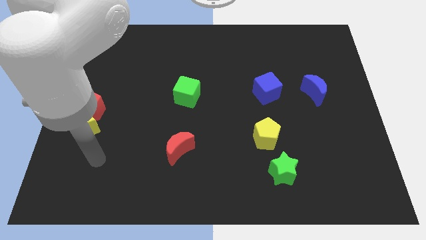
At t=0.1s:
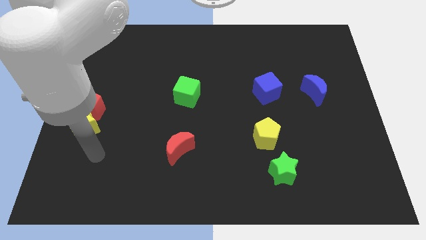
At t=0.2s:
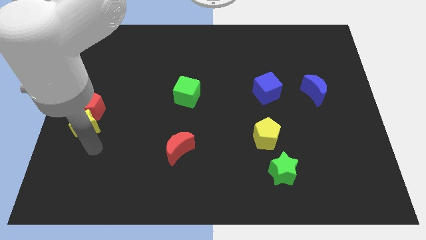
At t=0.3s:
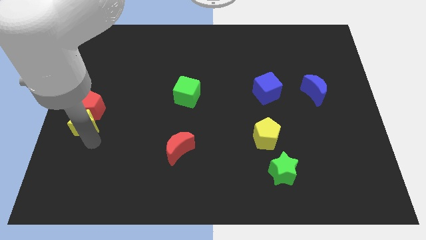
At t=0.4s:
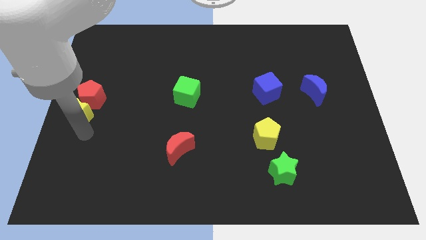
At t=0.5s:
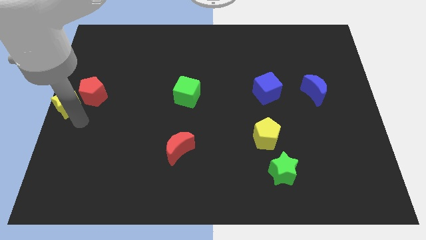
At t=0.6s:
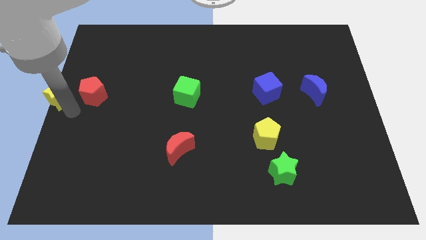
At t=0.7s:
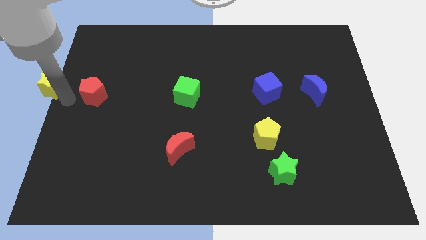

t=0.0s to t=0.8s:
separate the red pentagon from the yellow star

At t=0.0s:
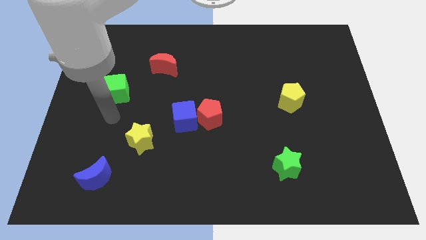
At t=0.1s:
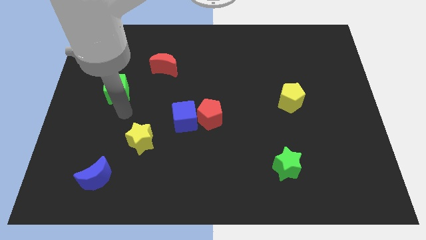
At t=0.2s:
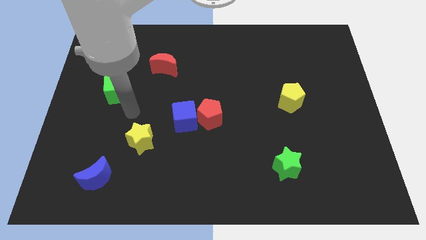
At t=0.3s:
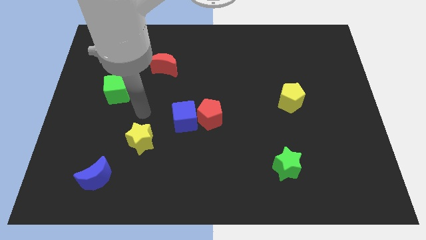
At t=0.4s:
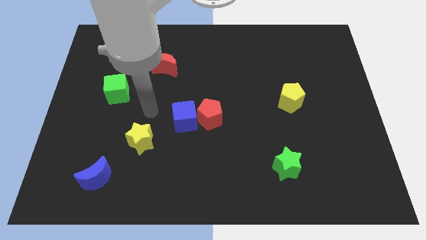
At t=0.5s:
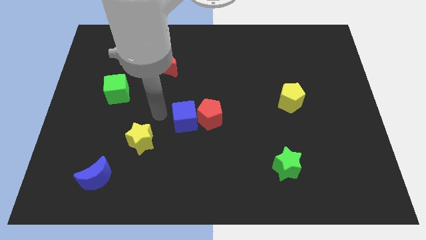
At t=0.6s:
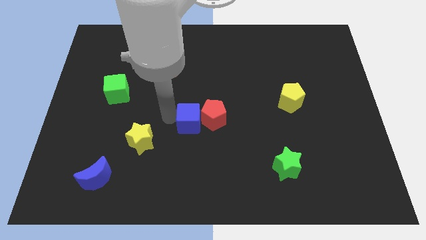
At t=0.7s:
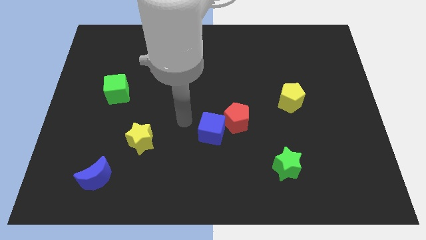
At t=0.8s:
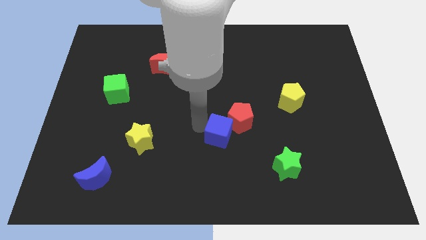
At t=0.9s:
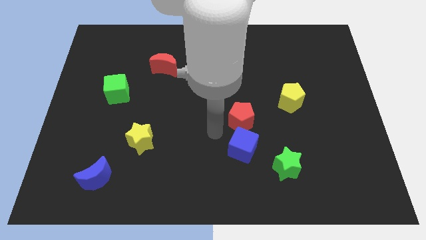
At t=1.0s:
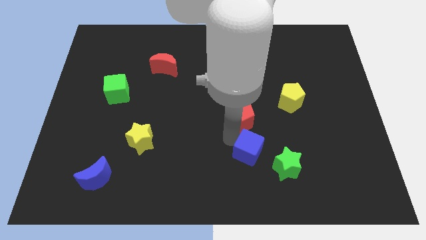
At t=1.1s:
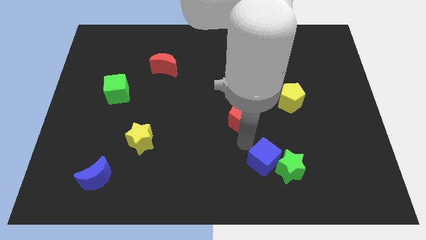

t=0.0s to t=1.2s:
separate the red pentagon from the blue cube

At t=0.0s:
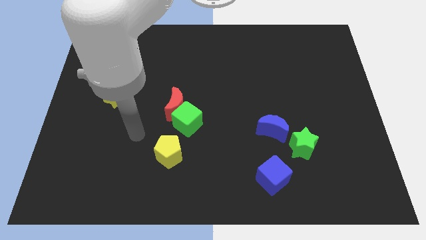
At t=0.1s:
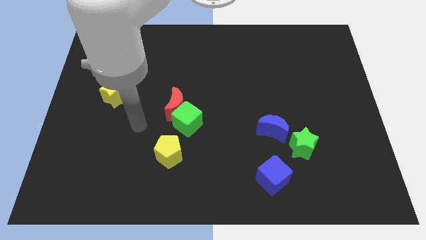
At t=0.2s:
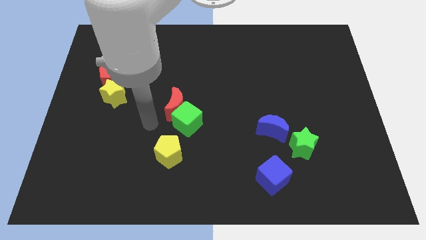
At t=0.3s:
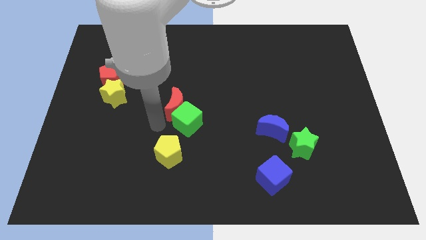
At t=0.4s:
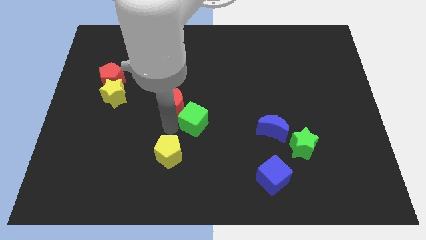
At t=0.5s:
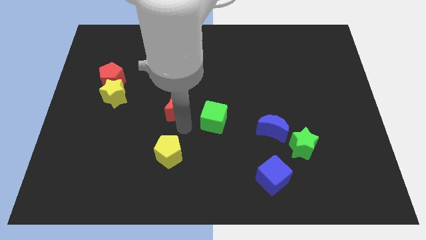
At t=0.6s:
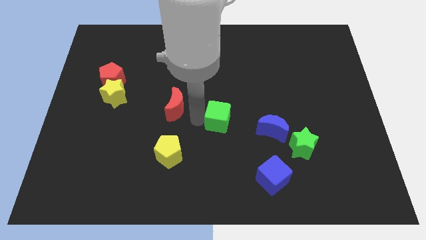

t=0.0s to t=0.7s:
move the red moon away from the green cube

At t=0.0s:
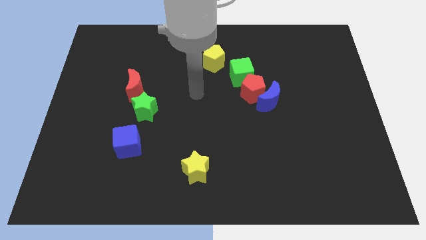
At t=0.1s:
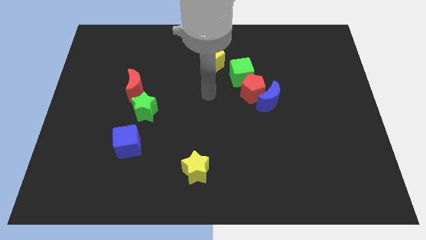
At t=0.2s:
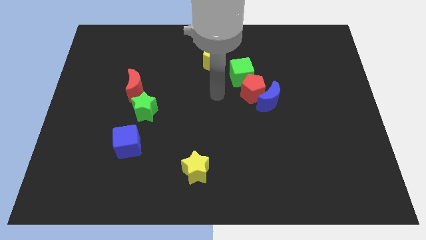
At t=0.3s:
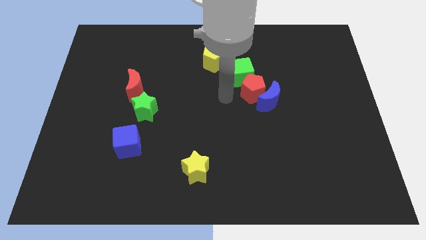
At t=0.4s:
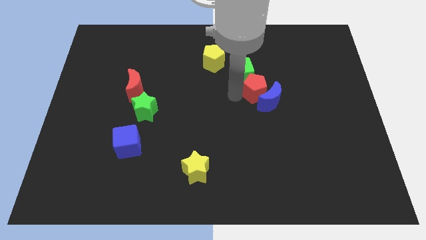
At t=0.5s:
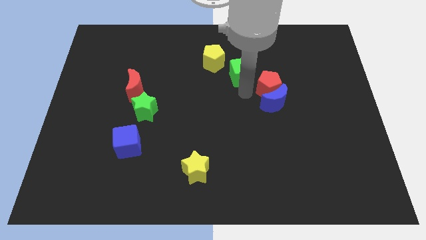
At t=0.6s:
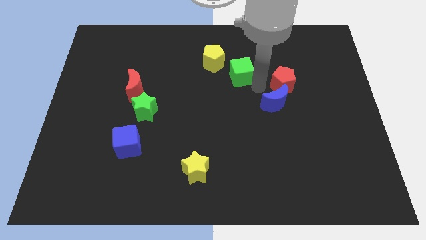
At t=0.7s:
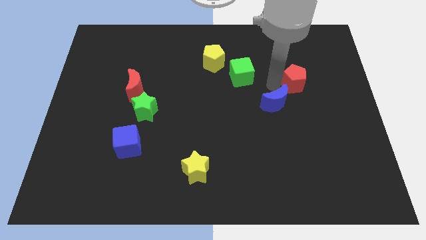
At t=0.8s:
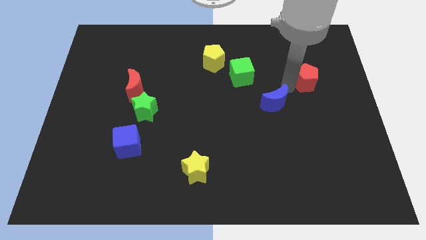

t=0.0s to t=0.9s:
pull the blue moon apart from the red pentagon

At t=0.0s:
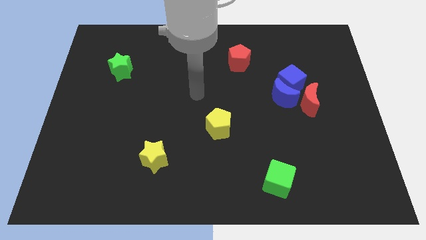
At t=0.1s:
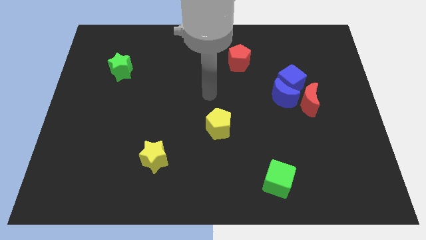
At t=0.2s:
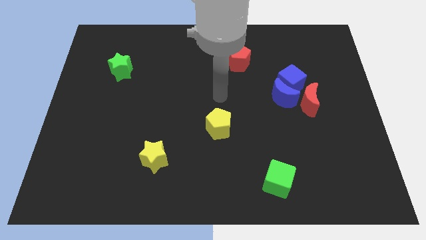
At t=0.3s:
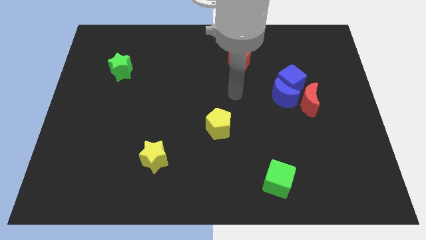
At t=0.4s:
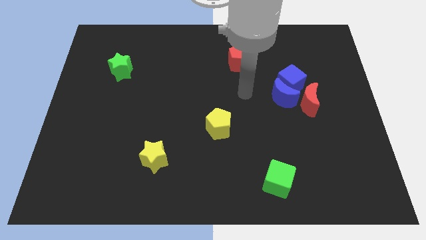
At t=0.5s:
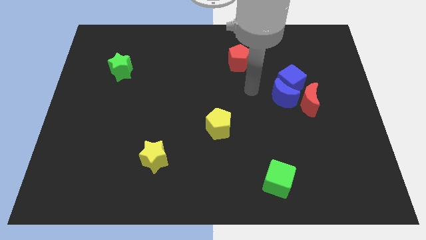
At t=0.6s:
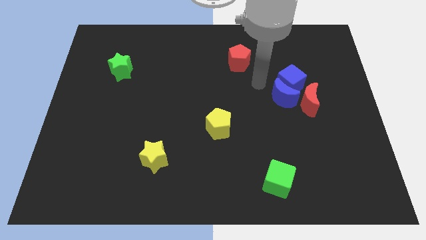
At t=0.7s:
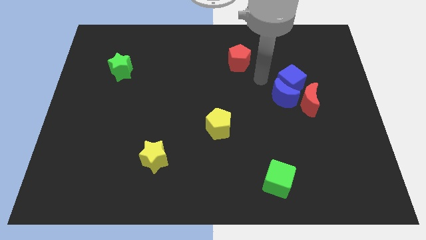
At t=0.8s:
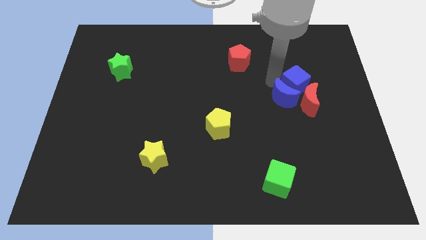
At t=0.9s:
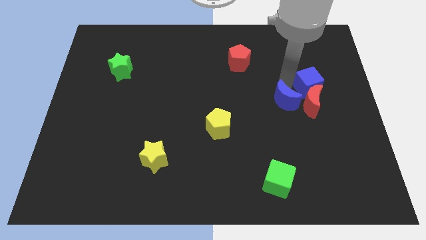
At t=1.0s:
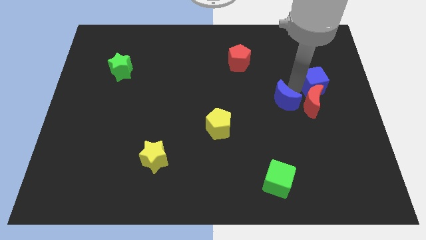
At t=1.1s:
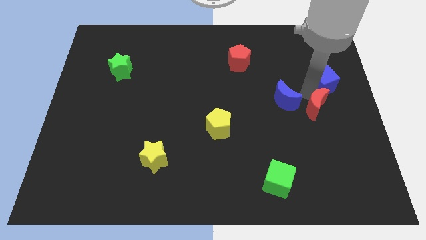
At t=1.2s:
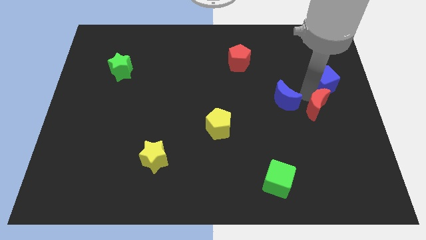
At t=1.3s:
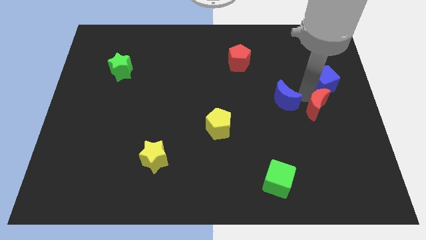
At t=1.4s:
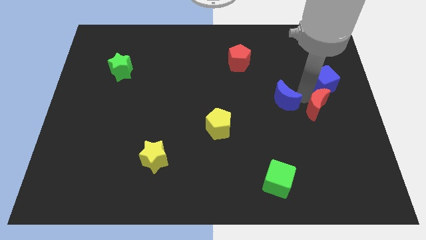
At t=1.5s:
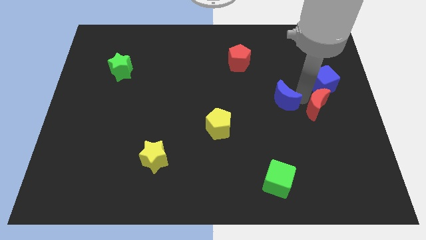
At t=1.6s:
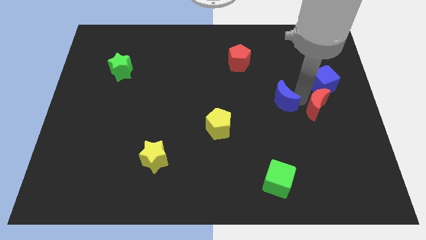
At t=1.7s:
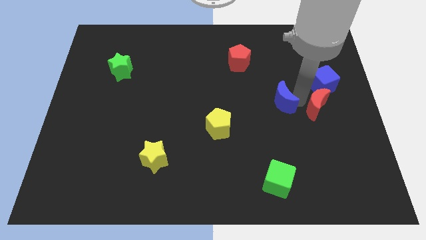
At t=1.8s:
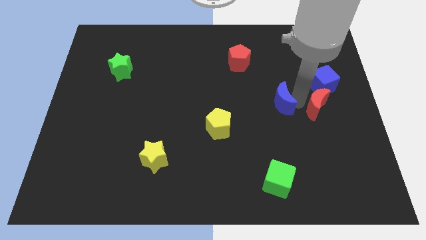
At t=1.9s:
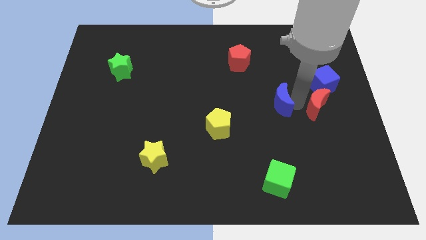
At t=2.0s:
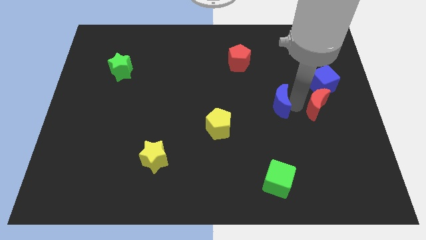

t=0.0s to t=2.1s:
move the blue moon away from the blue cube and red moon

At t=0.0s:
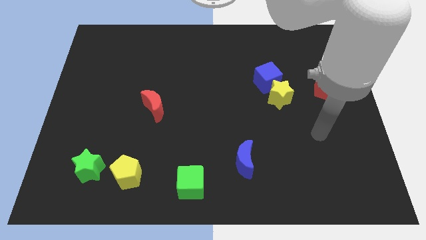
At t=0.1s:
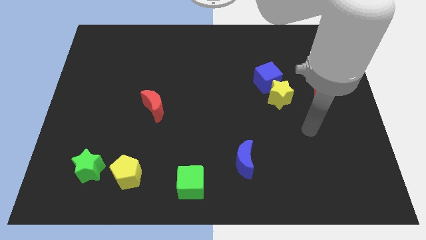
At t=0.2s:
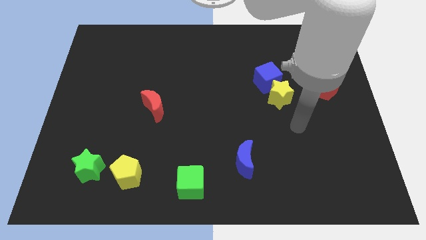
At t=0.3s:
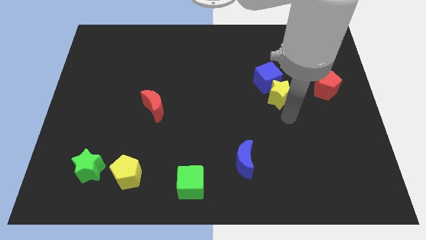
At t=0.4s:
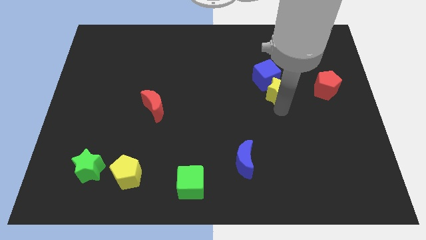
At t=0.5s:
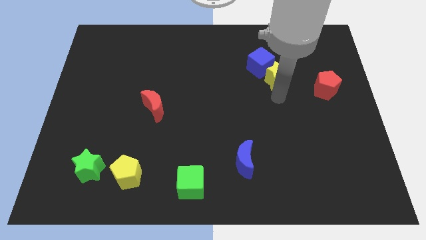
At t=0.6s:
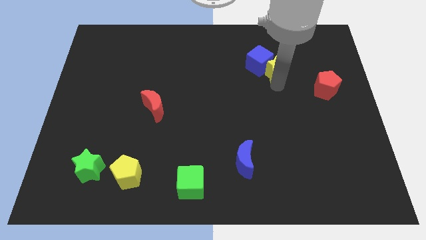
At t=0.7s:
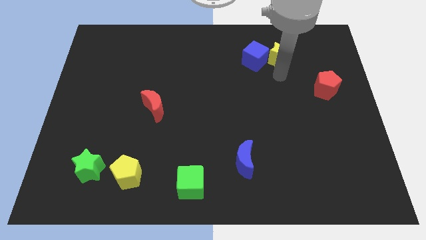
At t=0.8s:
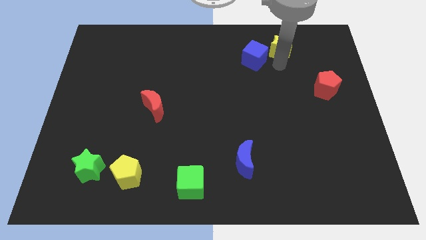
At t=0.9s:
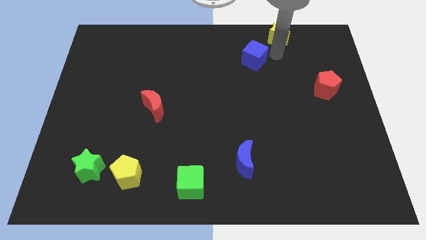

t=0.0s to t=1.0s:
move the blue cube away from the yellow star

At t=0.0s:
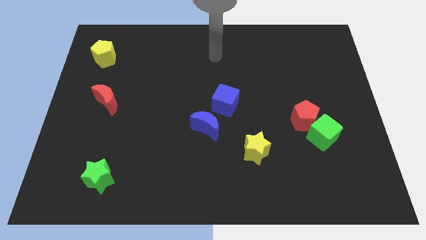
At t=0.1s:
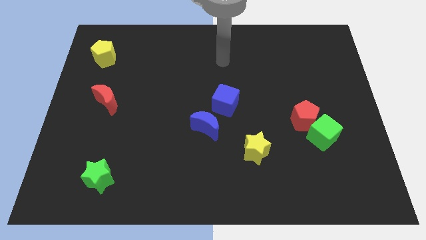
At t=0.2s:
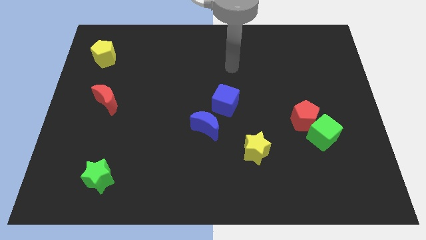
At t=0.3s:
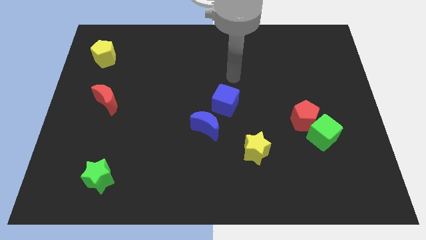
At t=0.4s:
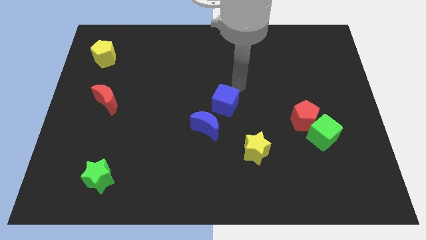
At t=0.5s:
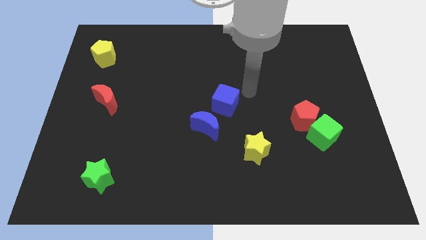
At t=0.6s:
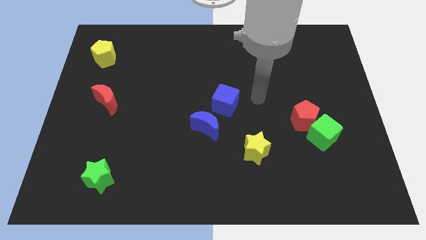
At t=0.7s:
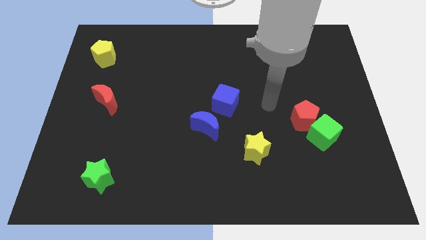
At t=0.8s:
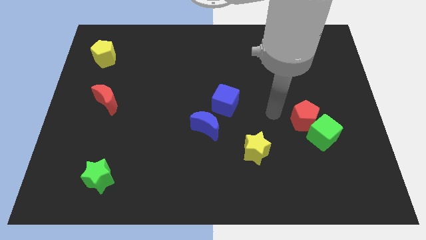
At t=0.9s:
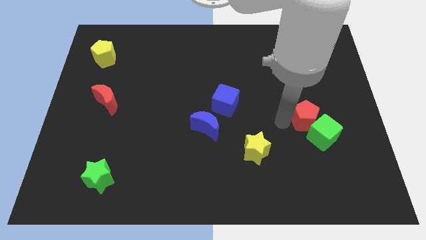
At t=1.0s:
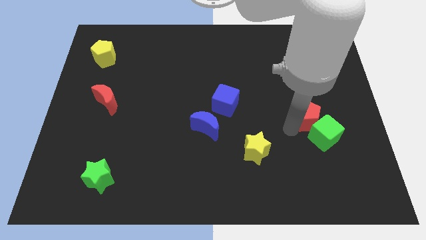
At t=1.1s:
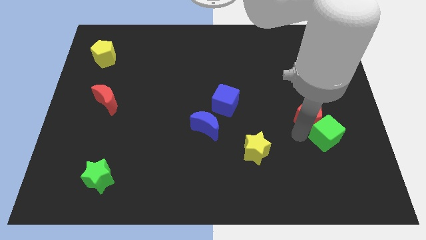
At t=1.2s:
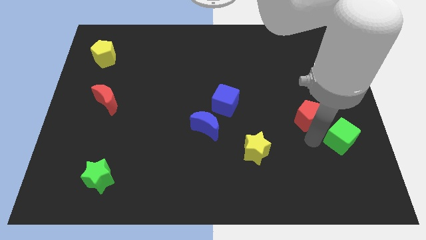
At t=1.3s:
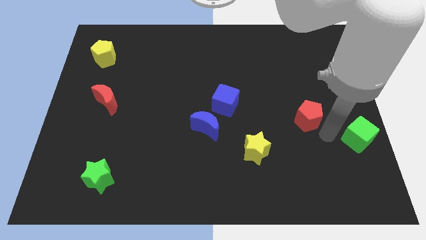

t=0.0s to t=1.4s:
separate the red pentagon from the green cube

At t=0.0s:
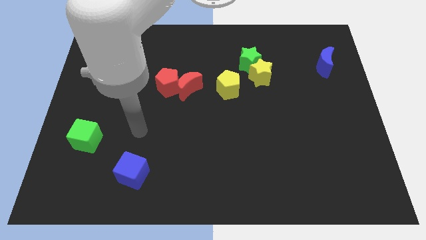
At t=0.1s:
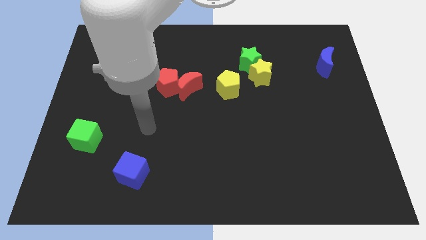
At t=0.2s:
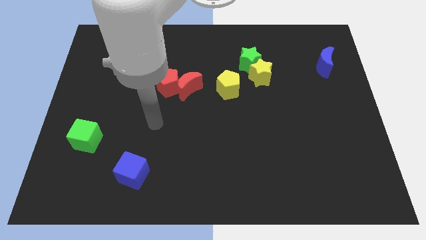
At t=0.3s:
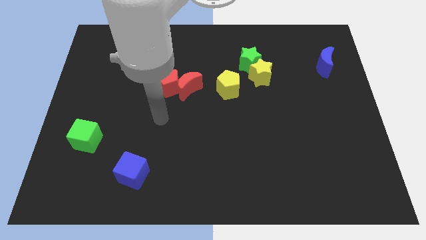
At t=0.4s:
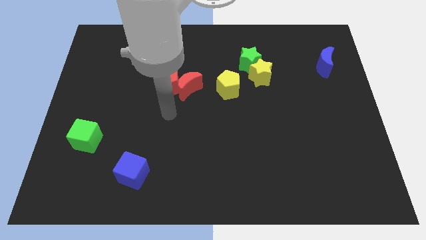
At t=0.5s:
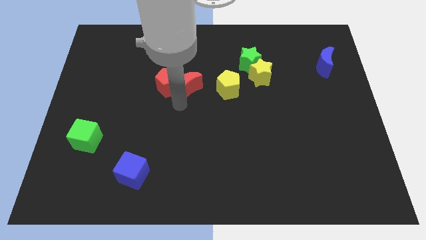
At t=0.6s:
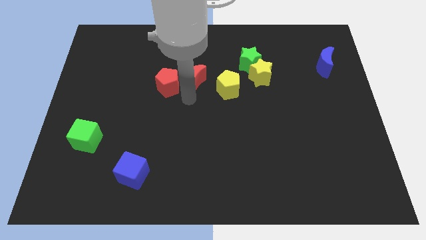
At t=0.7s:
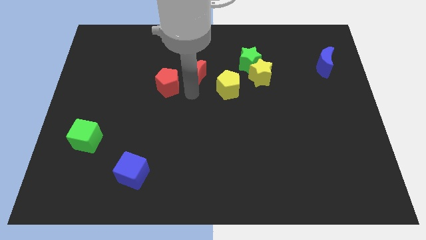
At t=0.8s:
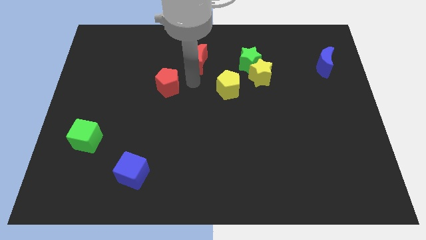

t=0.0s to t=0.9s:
separate the red pentagon from the red moon

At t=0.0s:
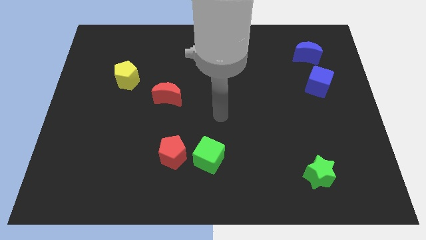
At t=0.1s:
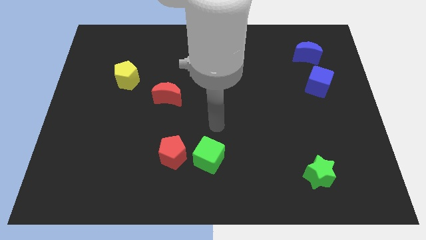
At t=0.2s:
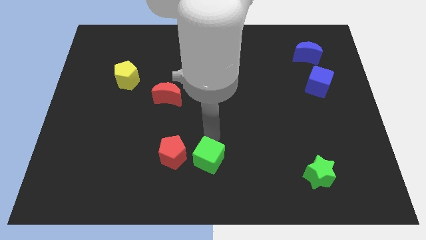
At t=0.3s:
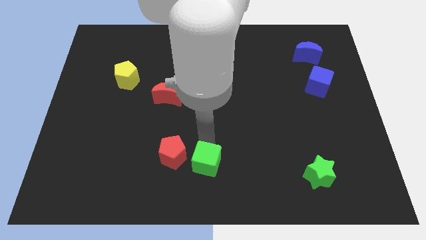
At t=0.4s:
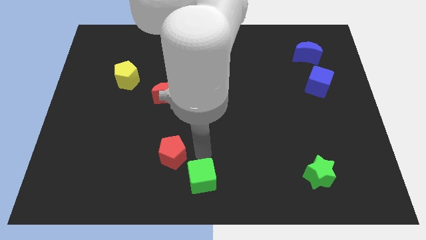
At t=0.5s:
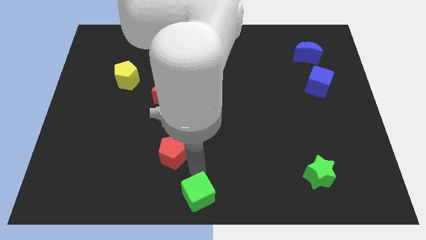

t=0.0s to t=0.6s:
move the red pentagon away from the green cube
